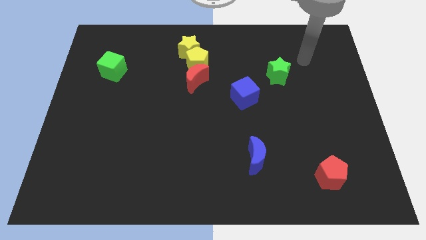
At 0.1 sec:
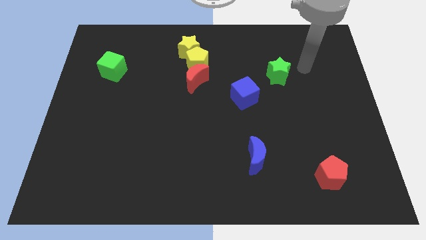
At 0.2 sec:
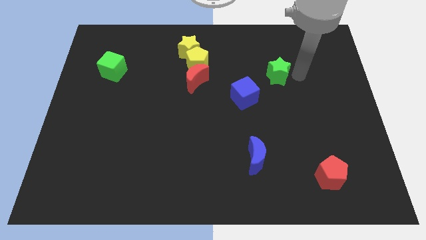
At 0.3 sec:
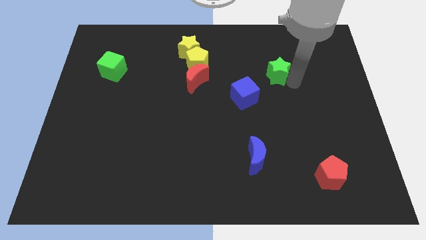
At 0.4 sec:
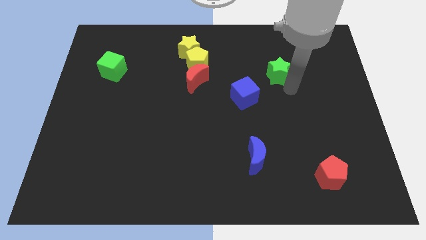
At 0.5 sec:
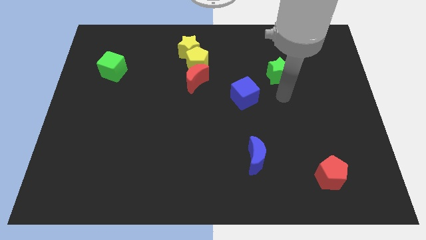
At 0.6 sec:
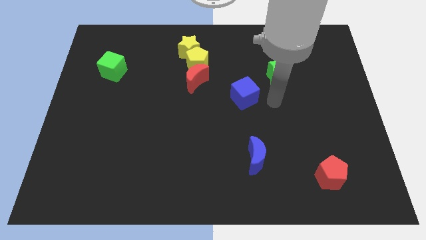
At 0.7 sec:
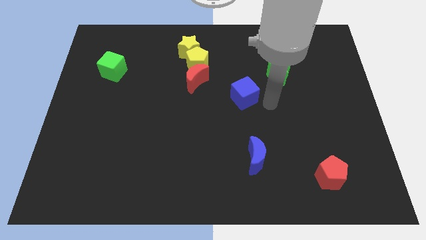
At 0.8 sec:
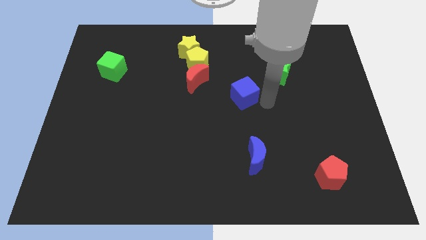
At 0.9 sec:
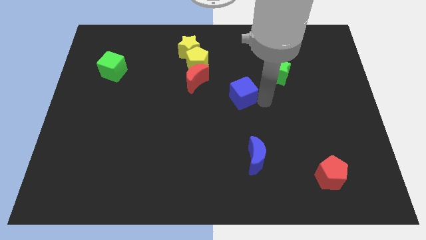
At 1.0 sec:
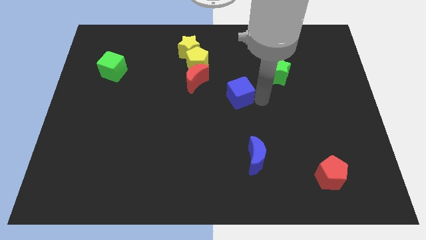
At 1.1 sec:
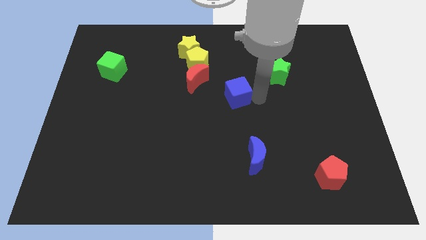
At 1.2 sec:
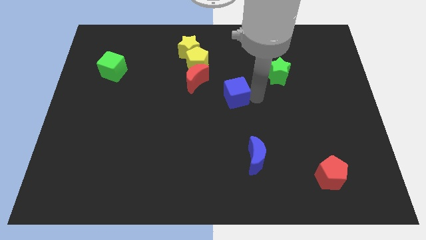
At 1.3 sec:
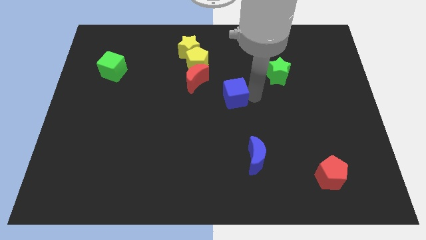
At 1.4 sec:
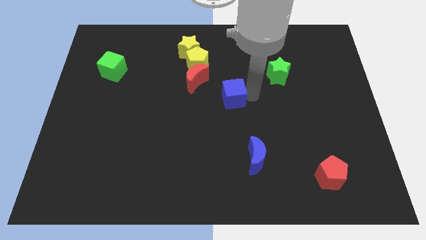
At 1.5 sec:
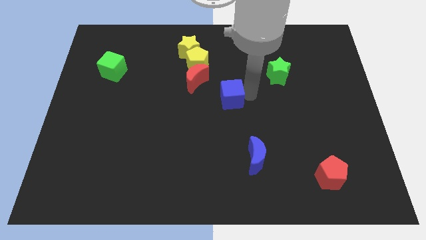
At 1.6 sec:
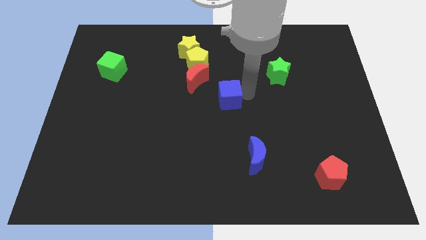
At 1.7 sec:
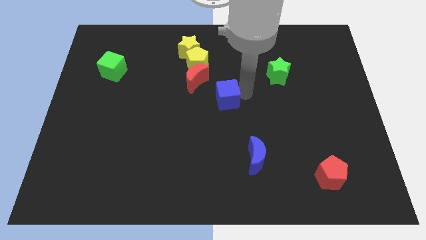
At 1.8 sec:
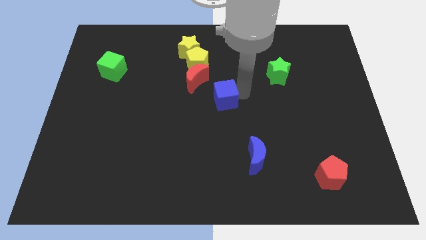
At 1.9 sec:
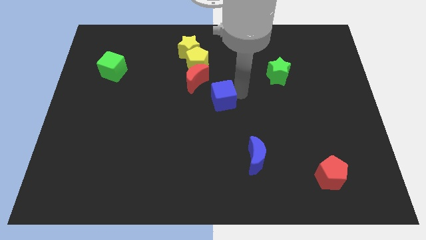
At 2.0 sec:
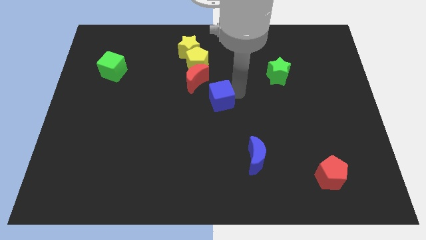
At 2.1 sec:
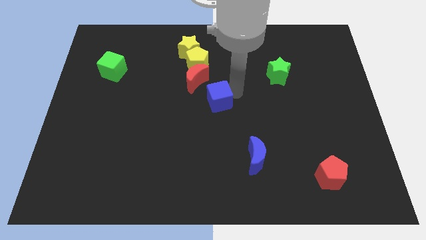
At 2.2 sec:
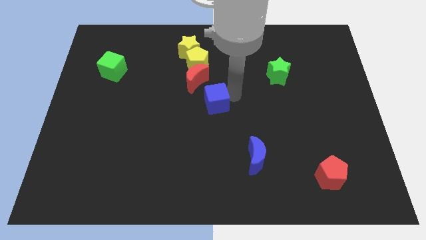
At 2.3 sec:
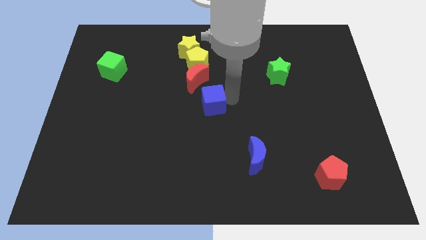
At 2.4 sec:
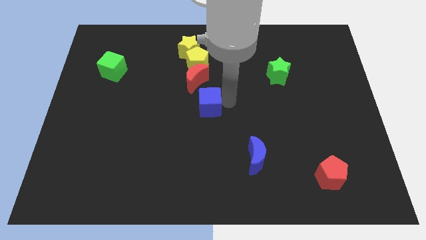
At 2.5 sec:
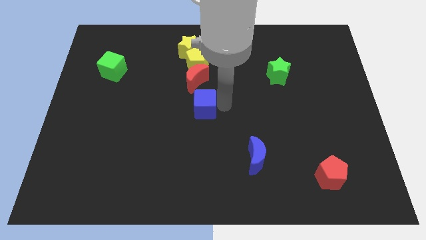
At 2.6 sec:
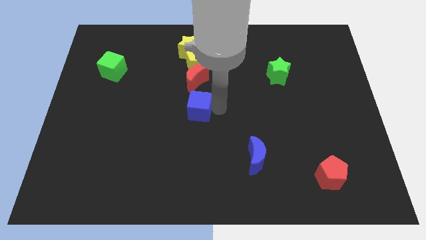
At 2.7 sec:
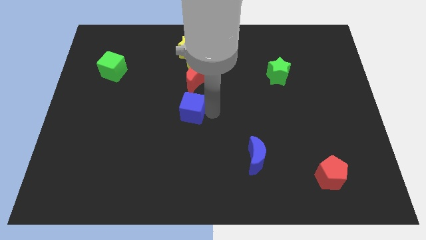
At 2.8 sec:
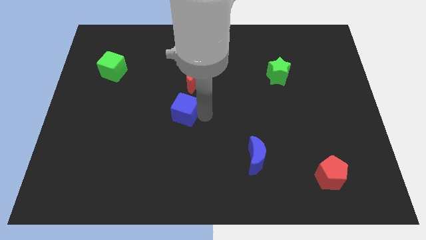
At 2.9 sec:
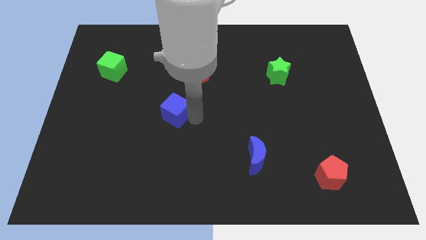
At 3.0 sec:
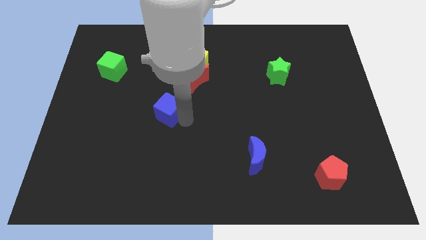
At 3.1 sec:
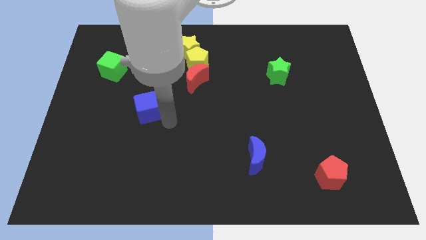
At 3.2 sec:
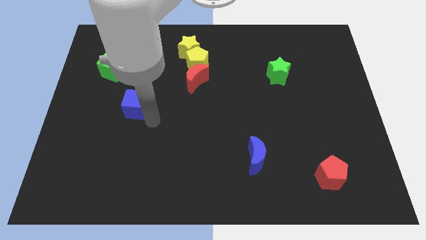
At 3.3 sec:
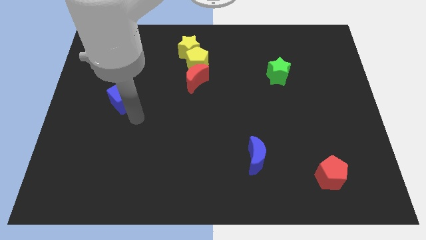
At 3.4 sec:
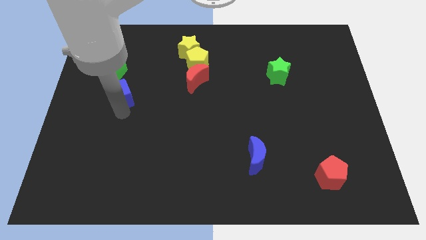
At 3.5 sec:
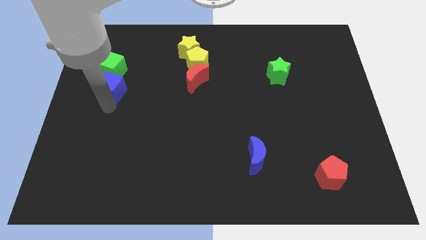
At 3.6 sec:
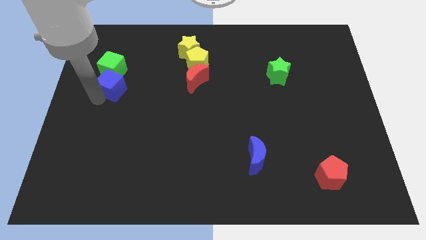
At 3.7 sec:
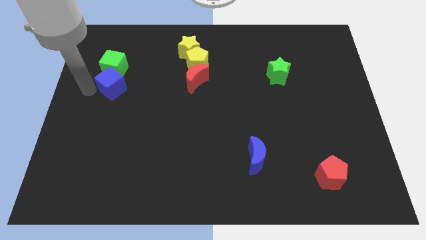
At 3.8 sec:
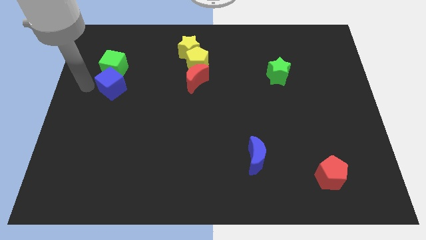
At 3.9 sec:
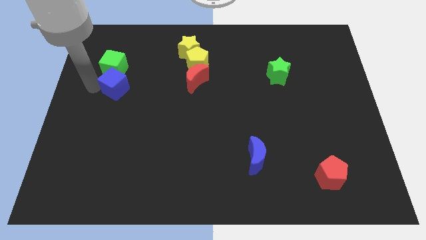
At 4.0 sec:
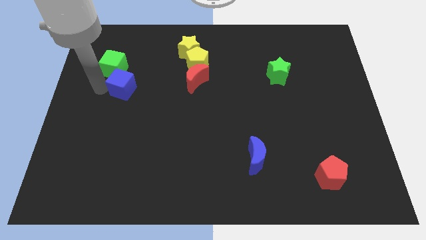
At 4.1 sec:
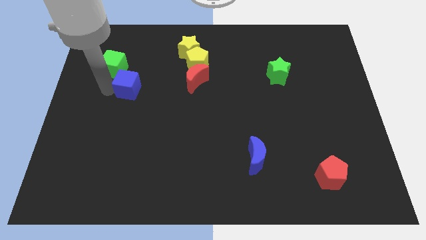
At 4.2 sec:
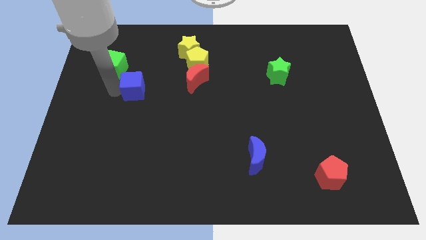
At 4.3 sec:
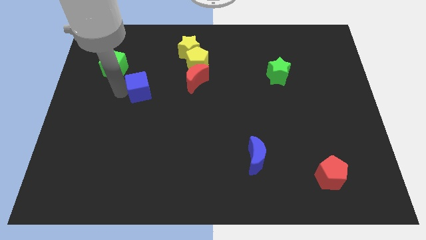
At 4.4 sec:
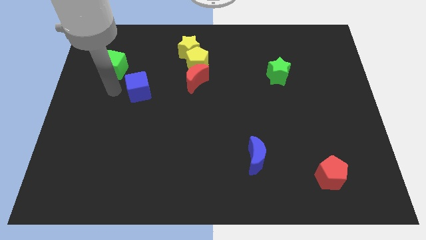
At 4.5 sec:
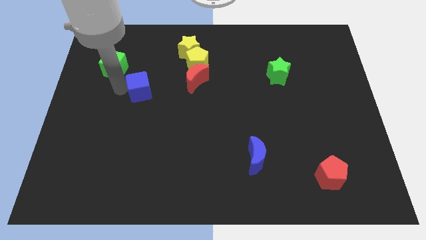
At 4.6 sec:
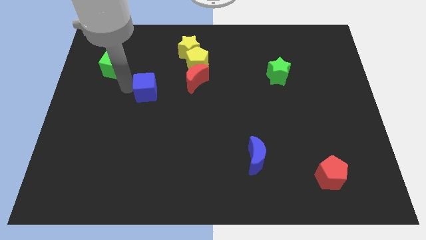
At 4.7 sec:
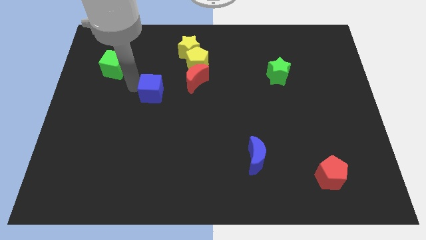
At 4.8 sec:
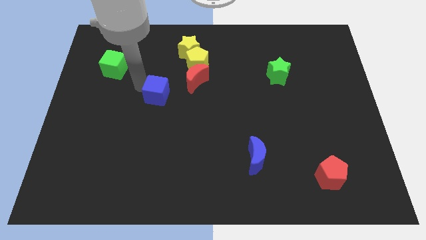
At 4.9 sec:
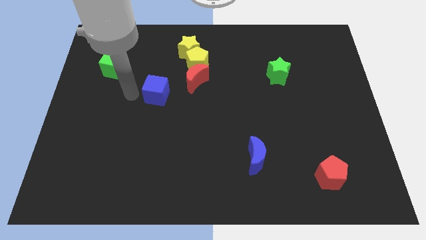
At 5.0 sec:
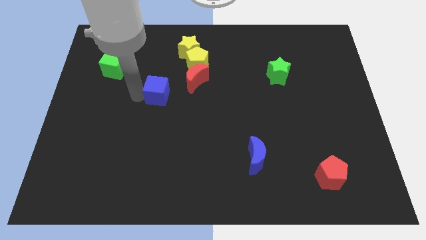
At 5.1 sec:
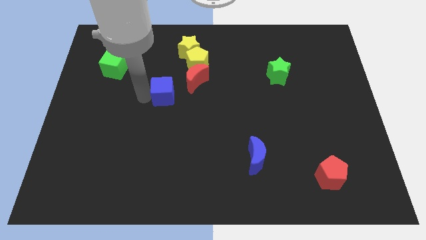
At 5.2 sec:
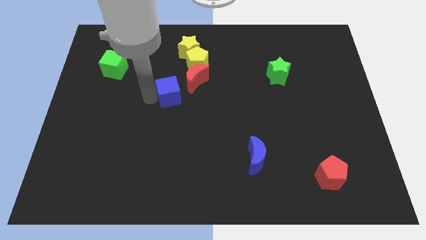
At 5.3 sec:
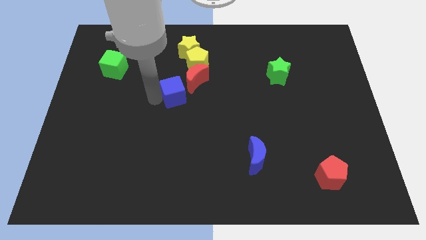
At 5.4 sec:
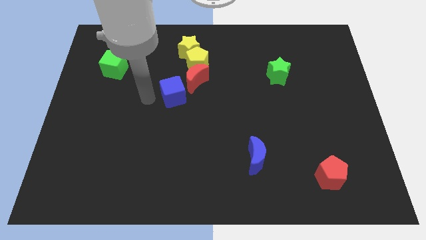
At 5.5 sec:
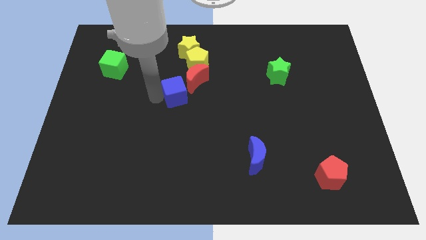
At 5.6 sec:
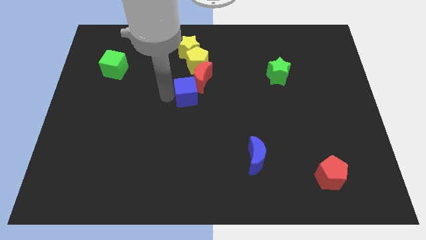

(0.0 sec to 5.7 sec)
put the blue cube close to the red moon

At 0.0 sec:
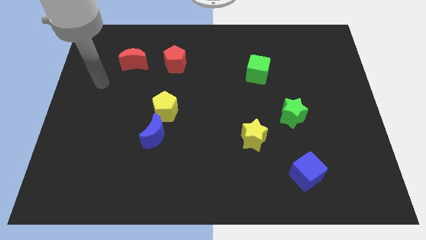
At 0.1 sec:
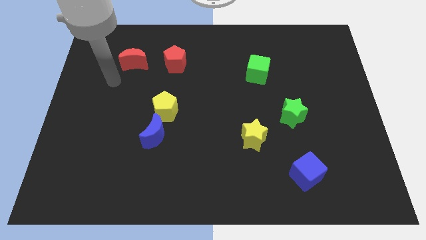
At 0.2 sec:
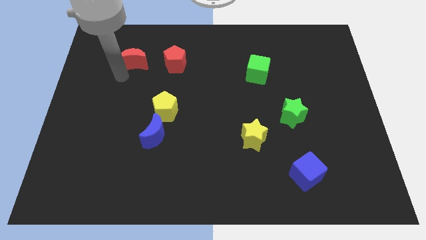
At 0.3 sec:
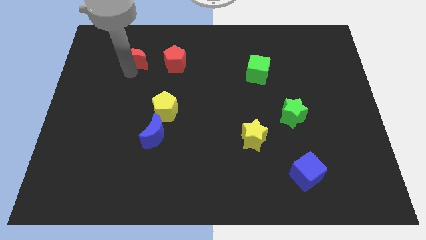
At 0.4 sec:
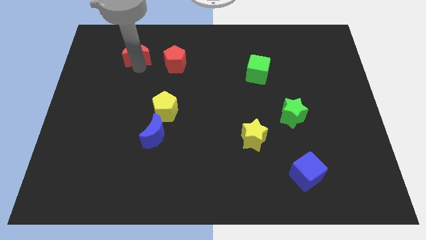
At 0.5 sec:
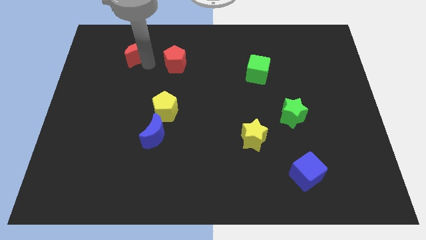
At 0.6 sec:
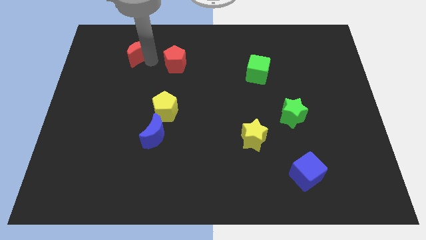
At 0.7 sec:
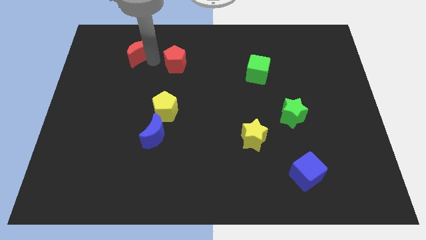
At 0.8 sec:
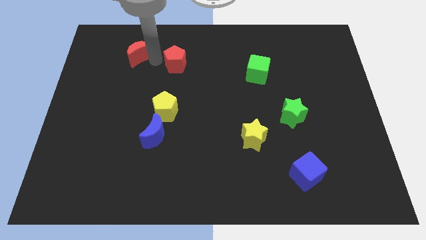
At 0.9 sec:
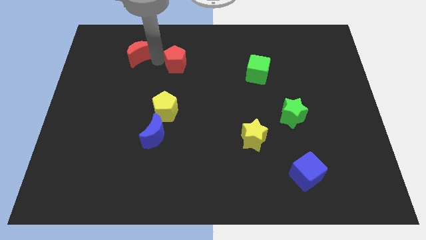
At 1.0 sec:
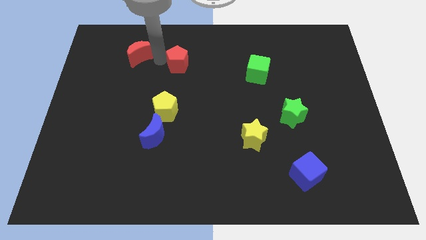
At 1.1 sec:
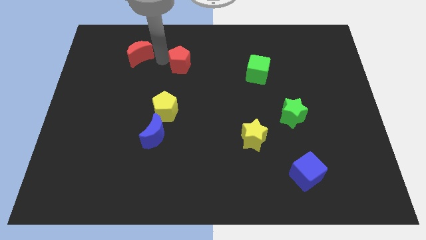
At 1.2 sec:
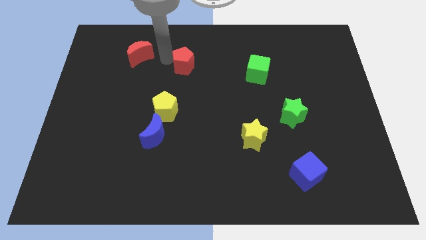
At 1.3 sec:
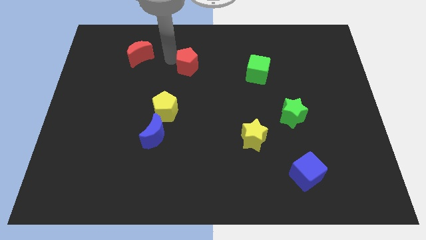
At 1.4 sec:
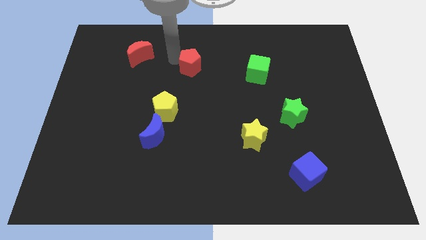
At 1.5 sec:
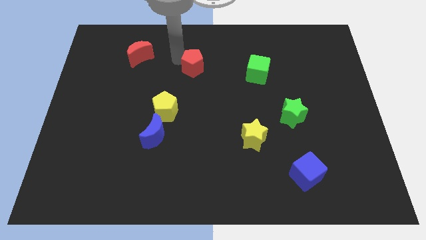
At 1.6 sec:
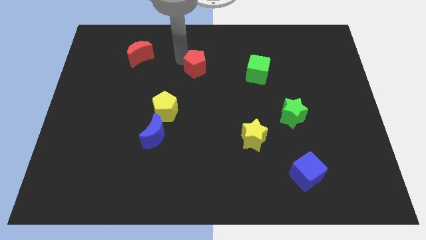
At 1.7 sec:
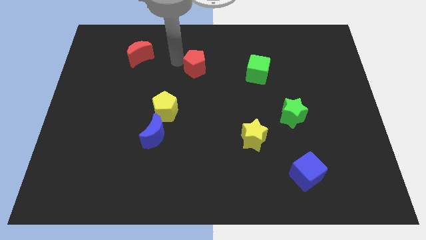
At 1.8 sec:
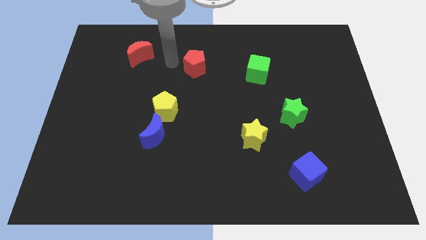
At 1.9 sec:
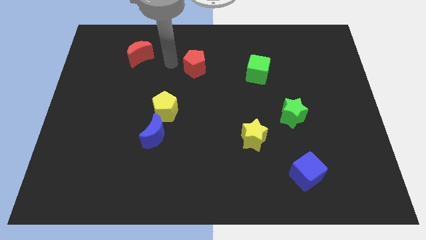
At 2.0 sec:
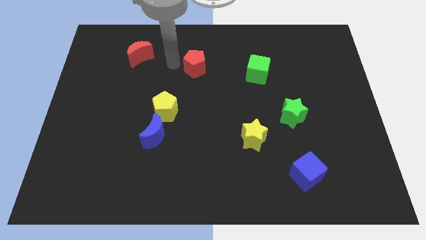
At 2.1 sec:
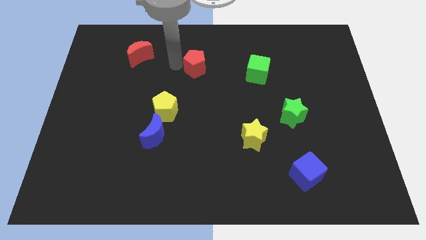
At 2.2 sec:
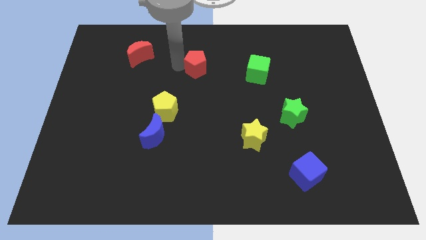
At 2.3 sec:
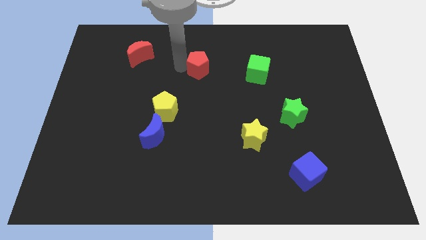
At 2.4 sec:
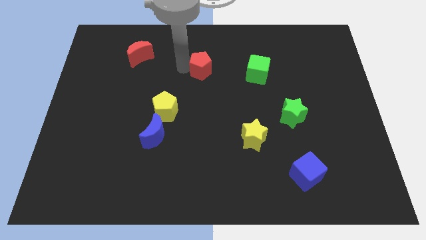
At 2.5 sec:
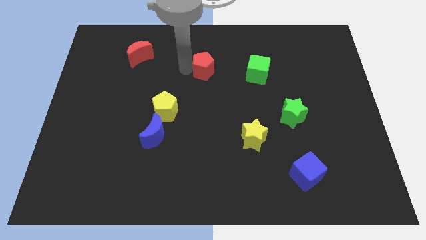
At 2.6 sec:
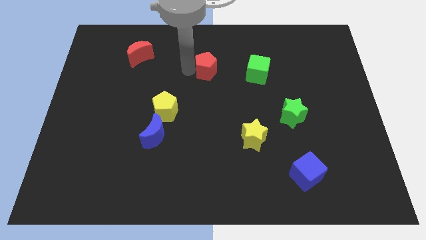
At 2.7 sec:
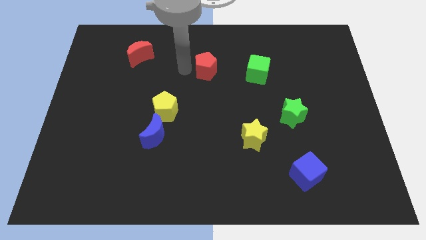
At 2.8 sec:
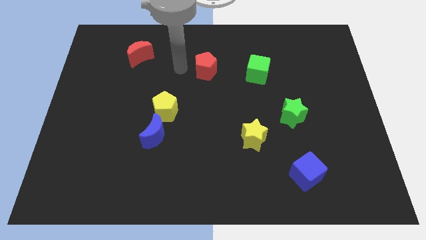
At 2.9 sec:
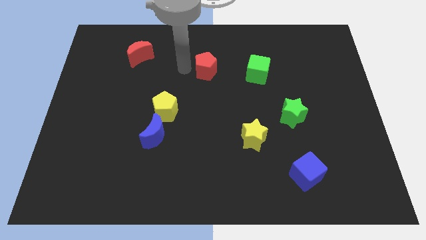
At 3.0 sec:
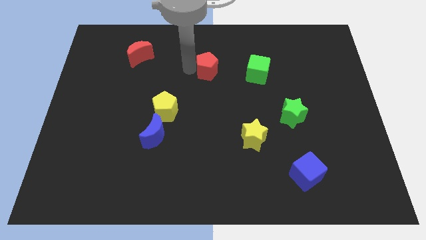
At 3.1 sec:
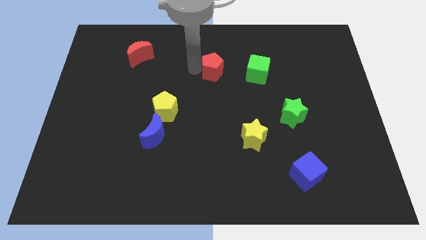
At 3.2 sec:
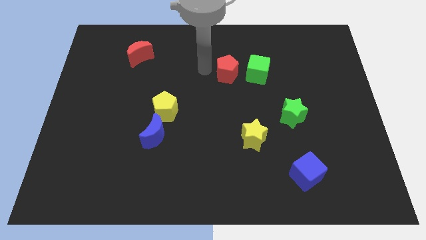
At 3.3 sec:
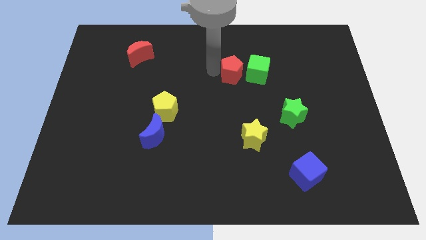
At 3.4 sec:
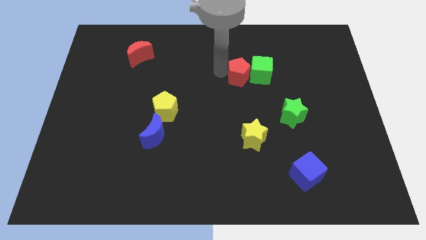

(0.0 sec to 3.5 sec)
push the red pentagon towards the green cube
